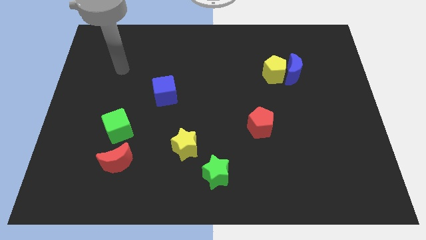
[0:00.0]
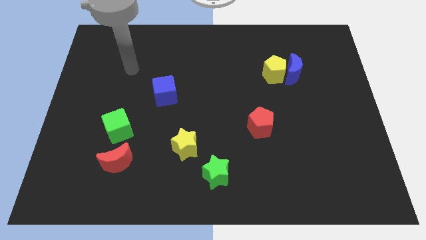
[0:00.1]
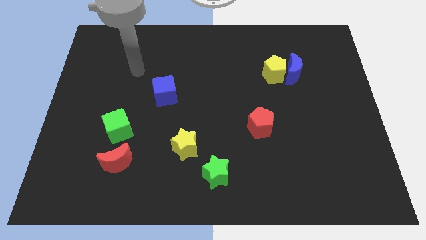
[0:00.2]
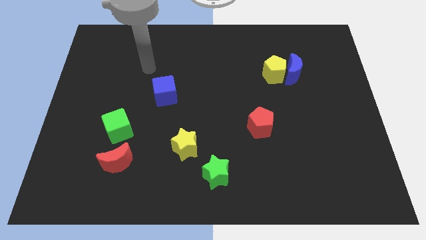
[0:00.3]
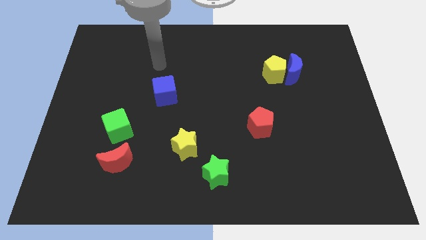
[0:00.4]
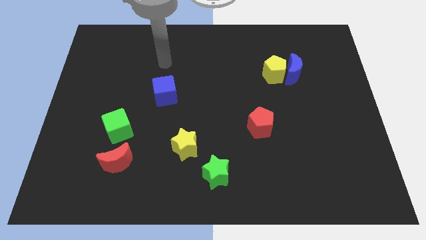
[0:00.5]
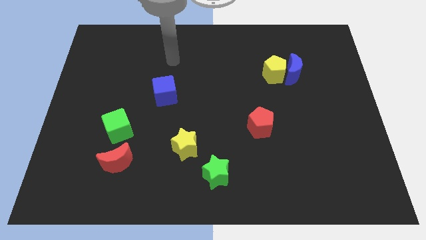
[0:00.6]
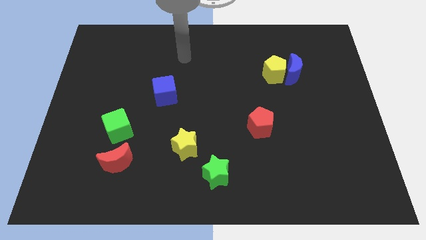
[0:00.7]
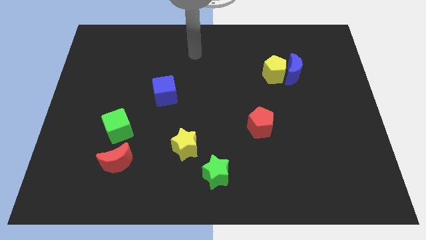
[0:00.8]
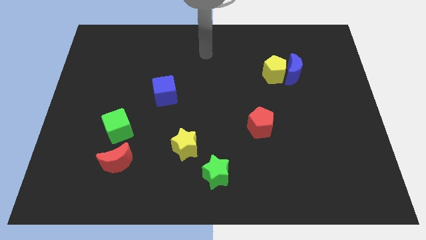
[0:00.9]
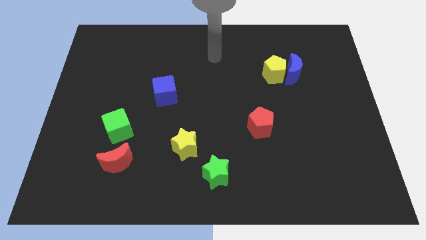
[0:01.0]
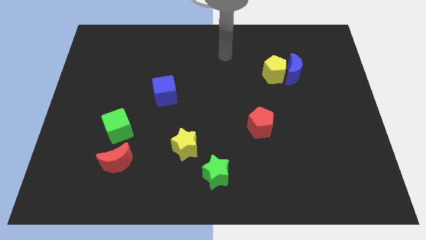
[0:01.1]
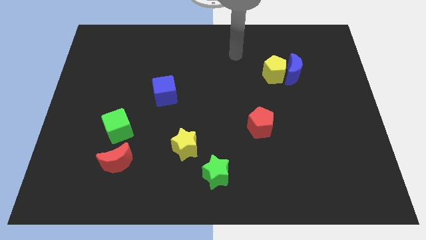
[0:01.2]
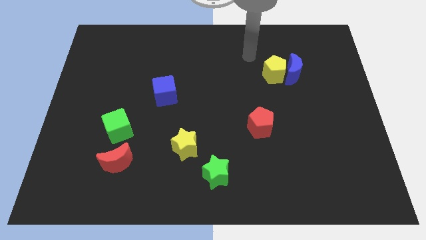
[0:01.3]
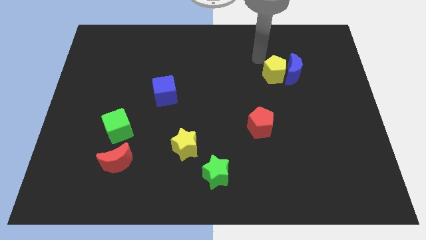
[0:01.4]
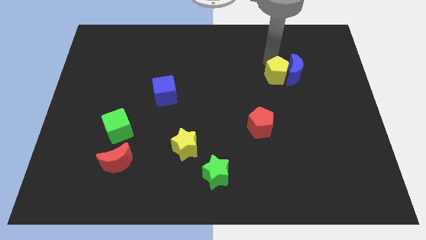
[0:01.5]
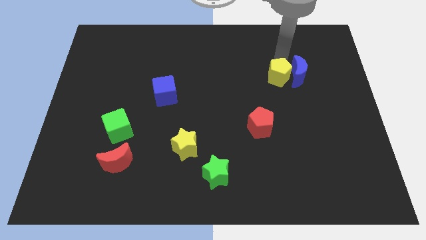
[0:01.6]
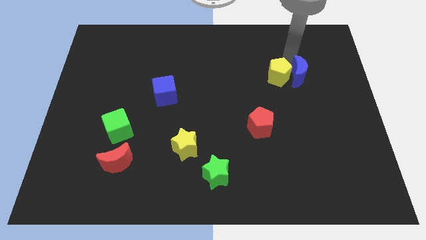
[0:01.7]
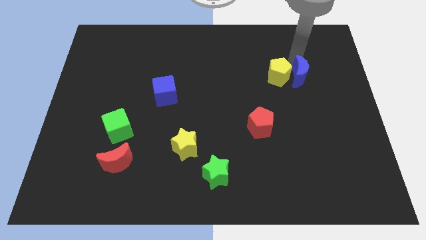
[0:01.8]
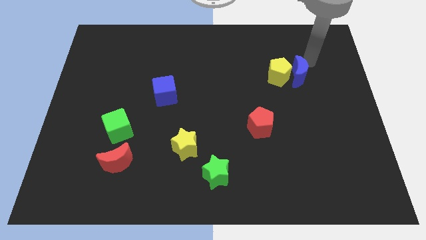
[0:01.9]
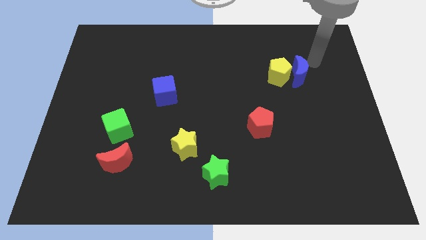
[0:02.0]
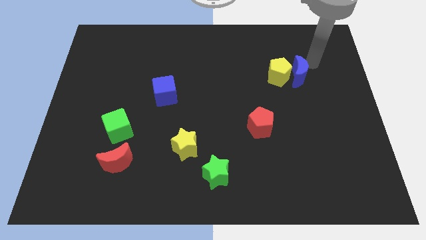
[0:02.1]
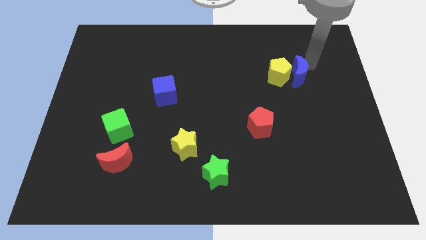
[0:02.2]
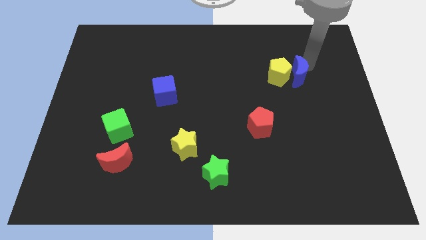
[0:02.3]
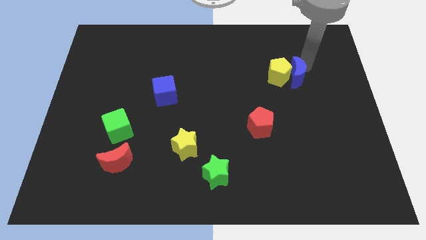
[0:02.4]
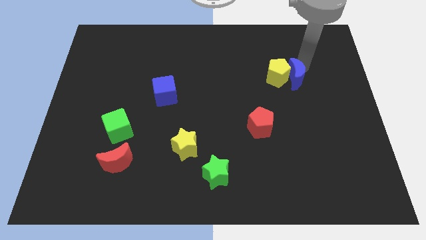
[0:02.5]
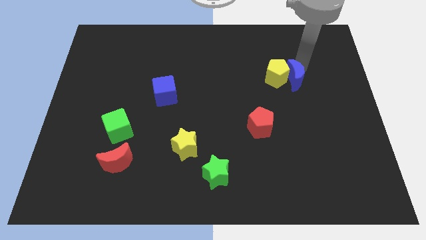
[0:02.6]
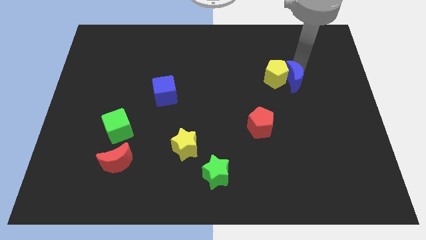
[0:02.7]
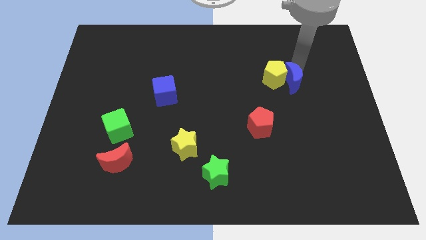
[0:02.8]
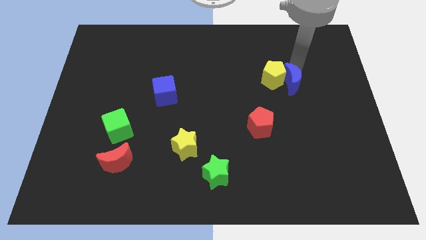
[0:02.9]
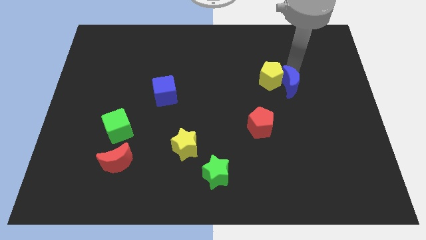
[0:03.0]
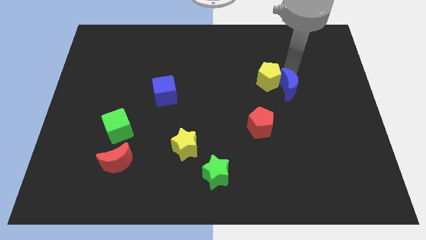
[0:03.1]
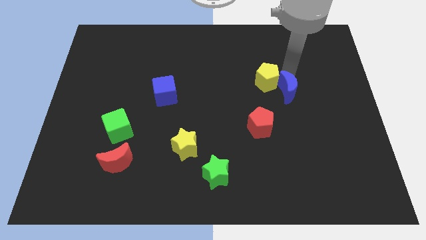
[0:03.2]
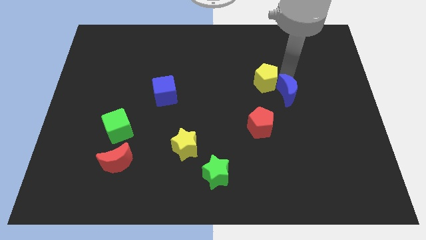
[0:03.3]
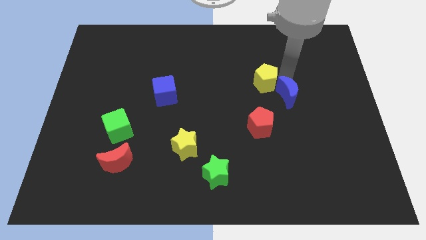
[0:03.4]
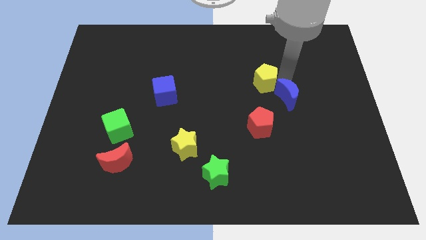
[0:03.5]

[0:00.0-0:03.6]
slightly move the blue moon down and then to the left

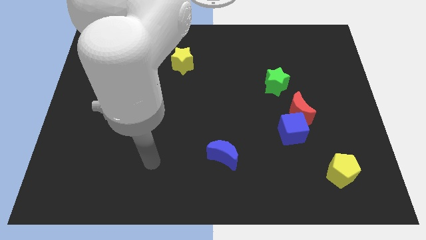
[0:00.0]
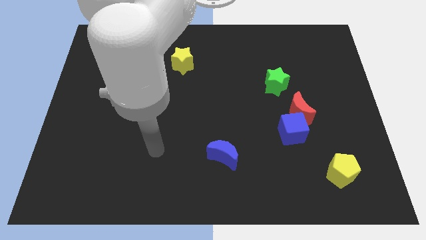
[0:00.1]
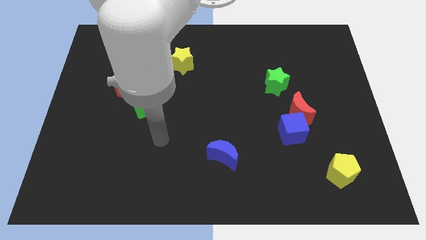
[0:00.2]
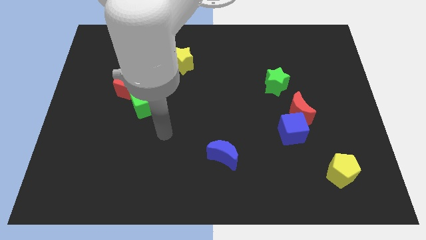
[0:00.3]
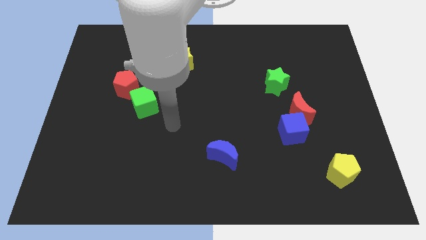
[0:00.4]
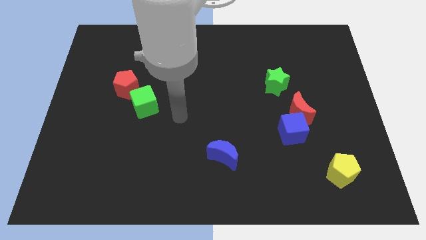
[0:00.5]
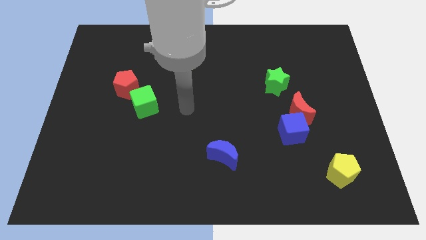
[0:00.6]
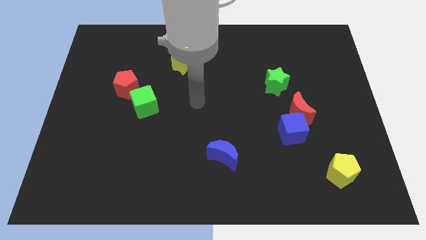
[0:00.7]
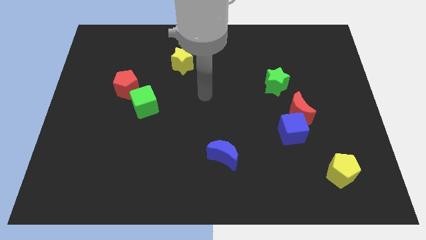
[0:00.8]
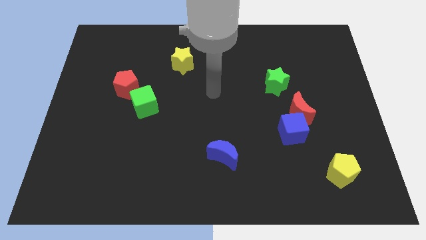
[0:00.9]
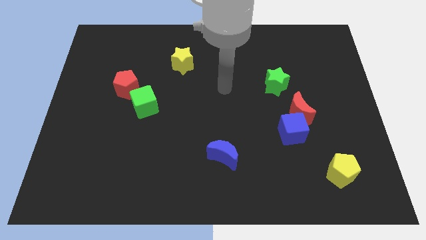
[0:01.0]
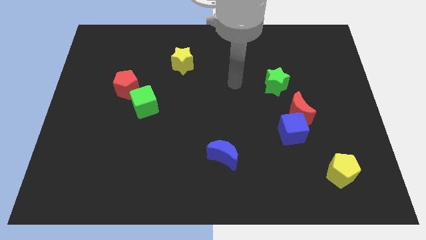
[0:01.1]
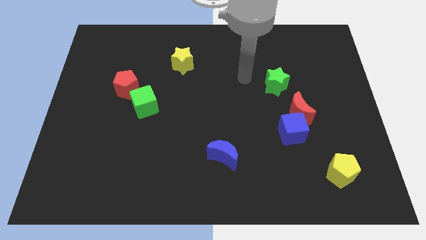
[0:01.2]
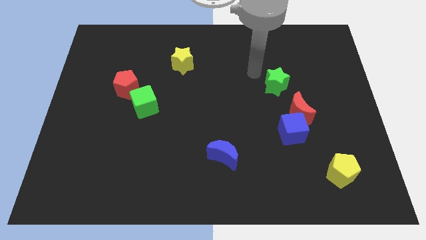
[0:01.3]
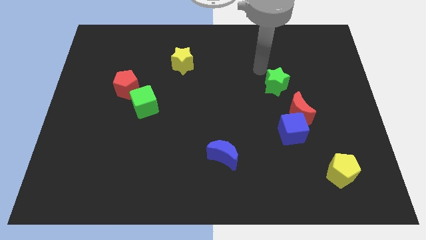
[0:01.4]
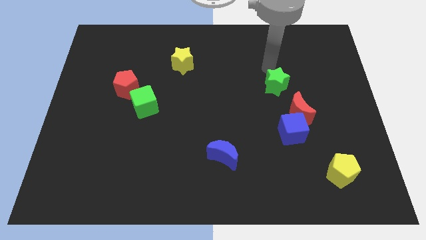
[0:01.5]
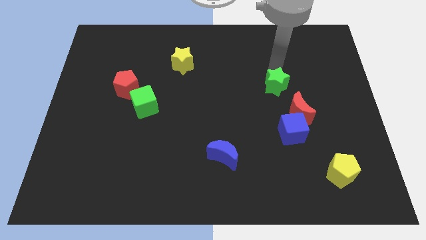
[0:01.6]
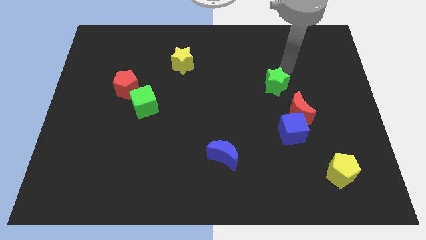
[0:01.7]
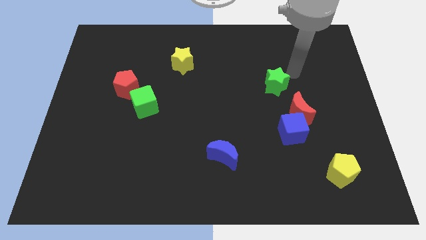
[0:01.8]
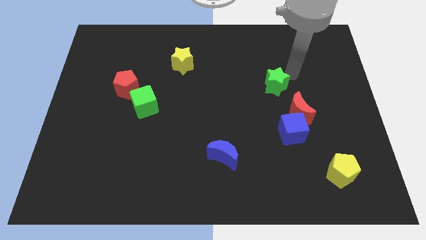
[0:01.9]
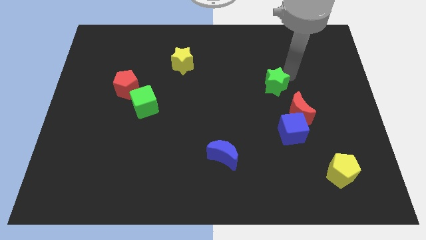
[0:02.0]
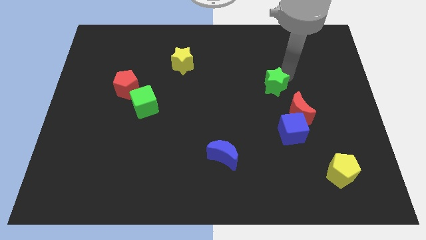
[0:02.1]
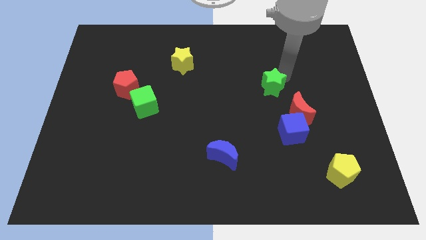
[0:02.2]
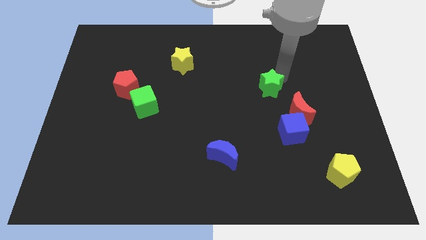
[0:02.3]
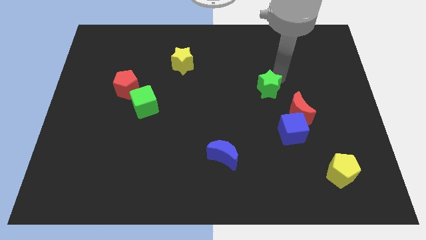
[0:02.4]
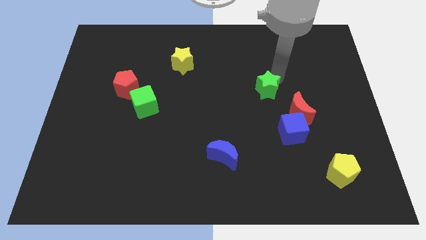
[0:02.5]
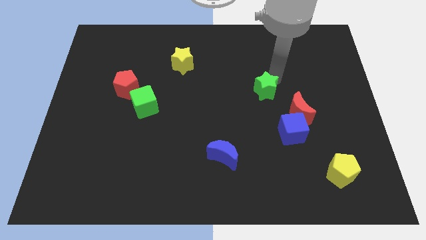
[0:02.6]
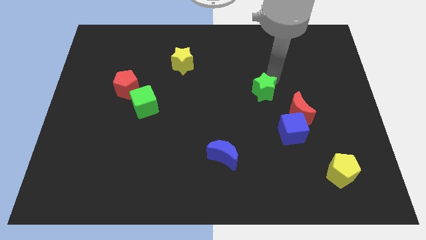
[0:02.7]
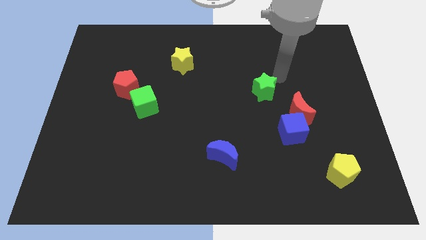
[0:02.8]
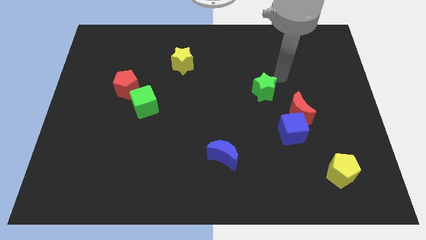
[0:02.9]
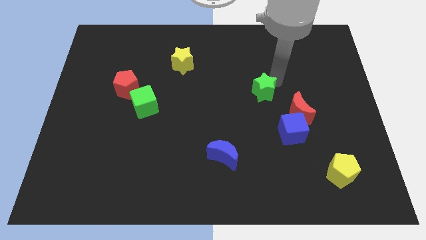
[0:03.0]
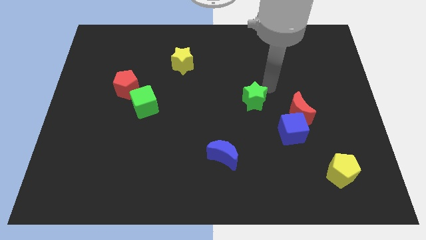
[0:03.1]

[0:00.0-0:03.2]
push the green star somewhat down and to the left diagonally

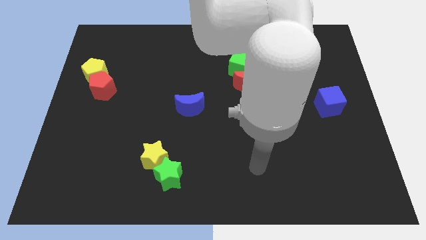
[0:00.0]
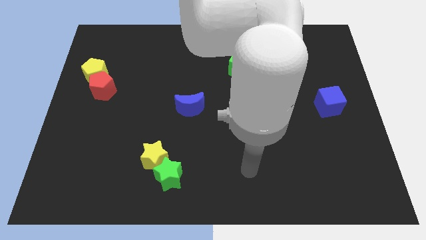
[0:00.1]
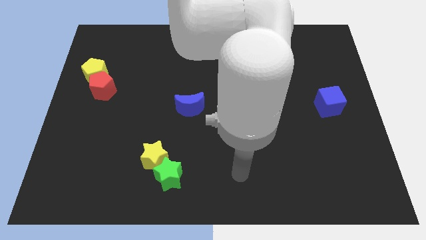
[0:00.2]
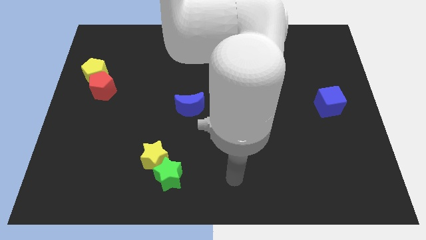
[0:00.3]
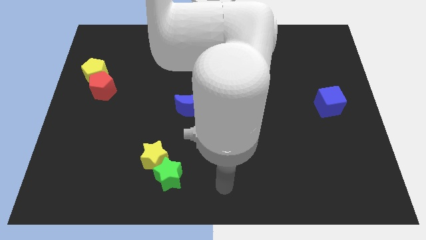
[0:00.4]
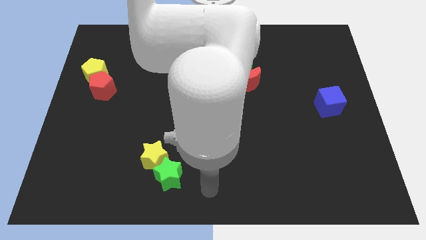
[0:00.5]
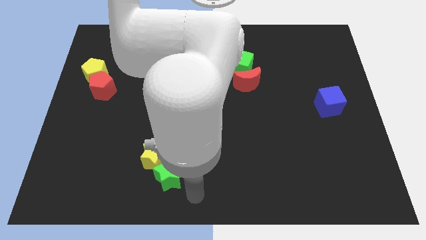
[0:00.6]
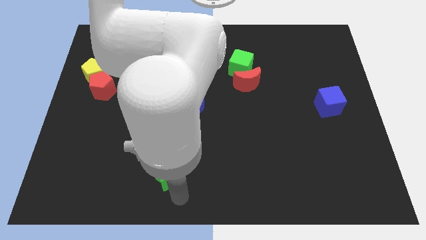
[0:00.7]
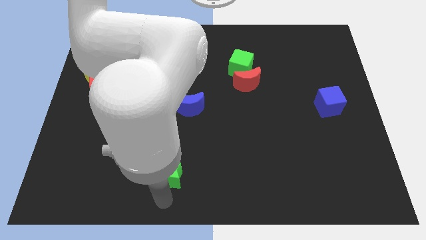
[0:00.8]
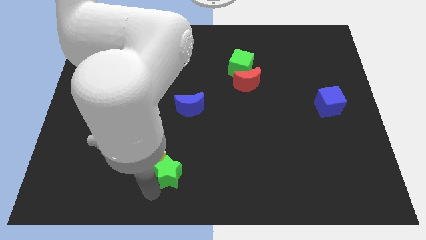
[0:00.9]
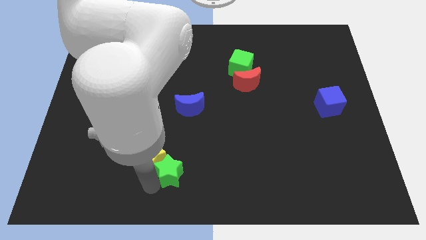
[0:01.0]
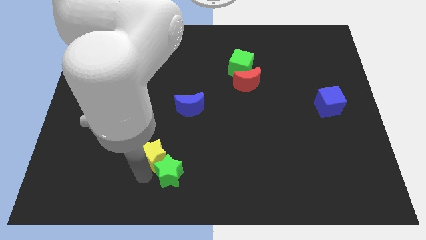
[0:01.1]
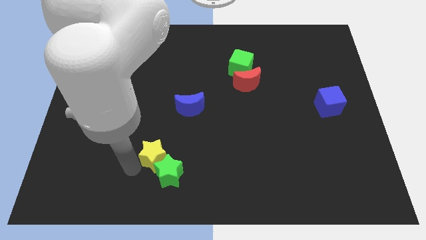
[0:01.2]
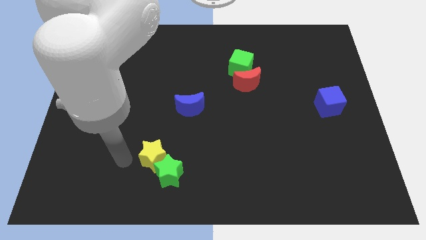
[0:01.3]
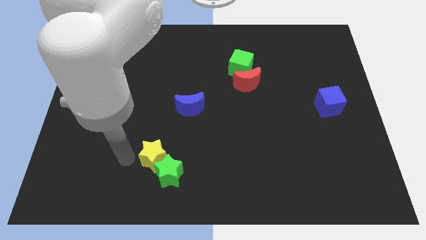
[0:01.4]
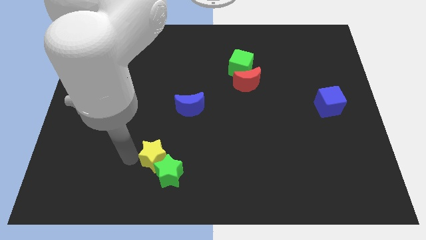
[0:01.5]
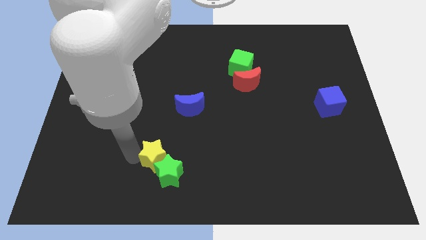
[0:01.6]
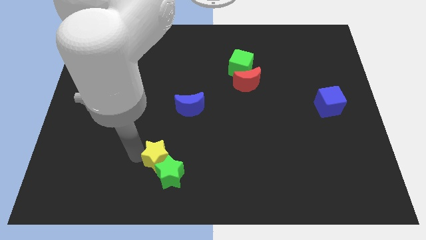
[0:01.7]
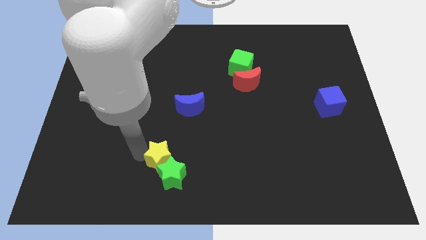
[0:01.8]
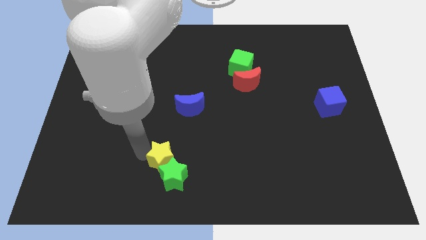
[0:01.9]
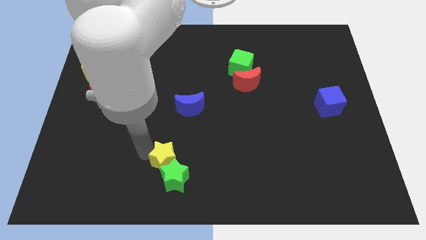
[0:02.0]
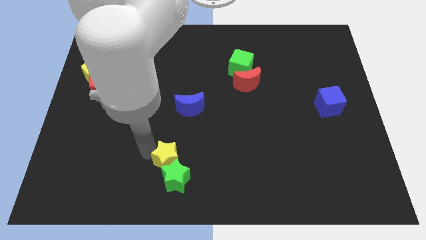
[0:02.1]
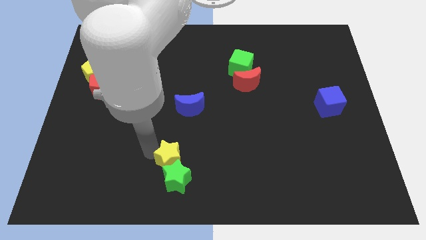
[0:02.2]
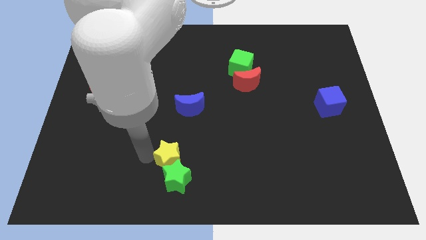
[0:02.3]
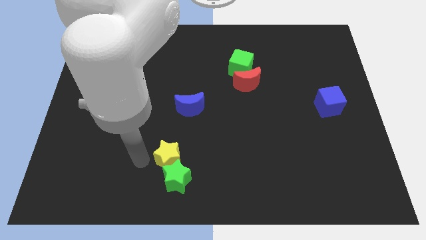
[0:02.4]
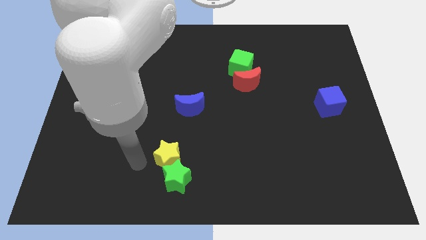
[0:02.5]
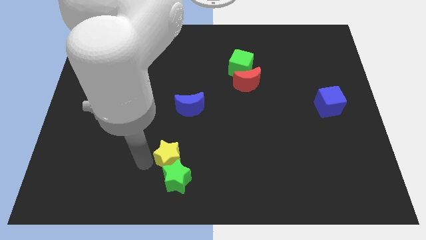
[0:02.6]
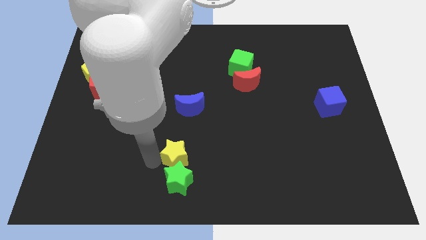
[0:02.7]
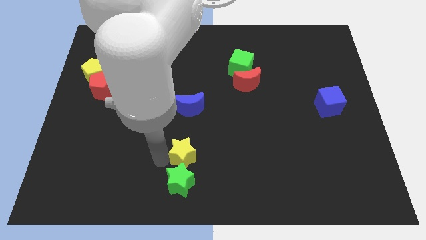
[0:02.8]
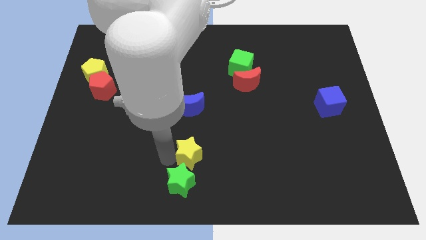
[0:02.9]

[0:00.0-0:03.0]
move the yellow star to the right a bit
